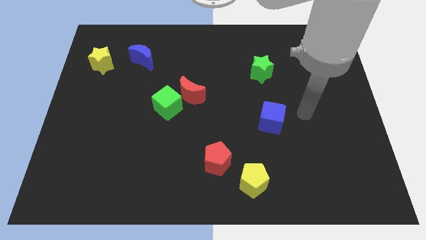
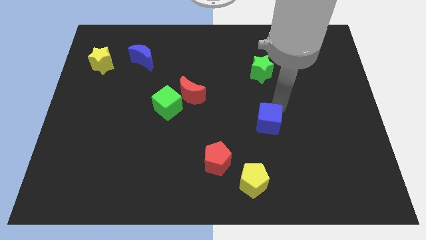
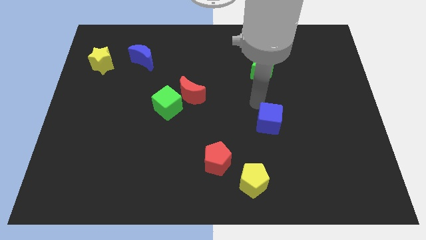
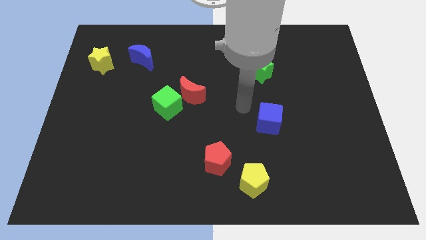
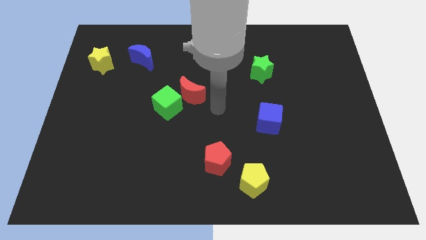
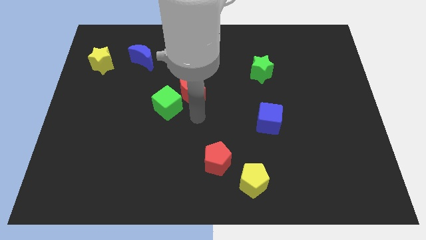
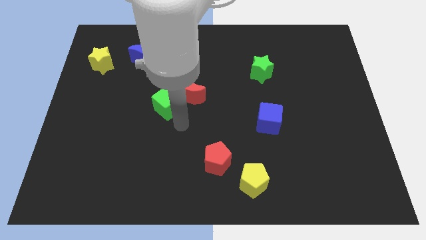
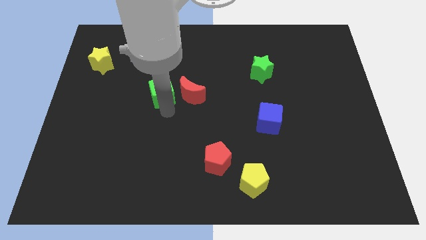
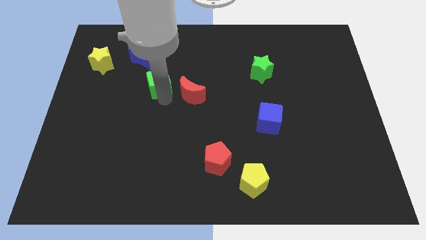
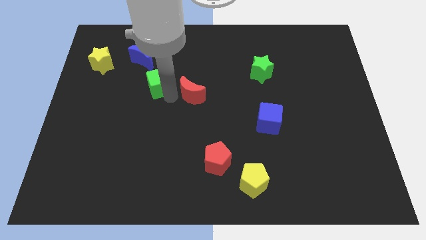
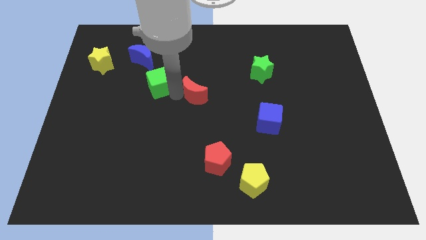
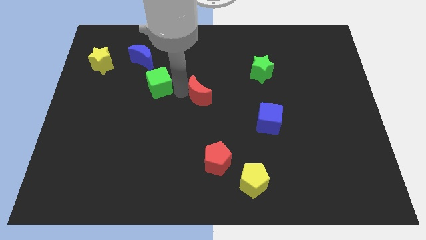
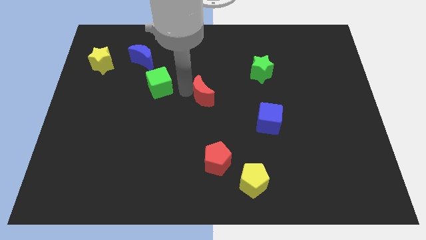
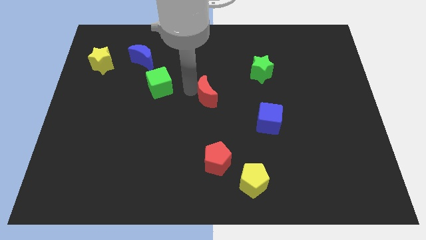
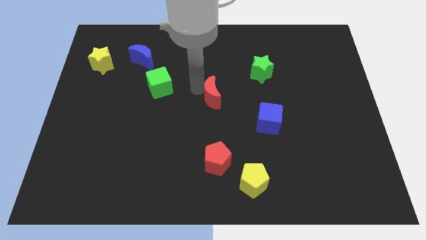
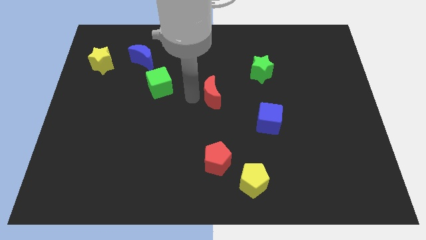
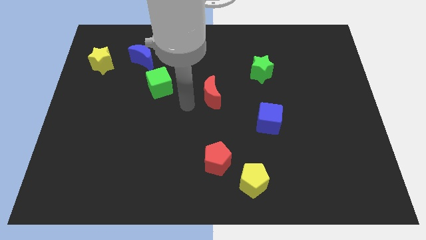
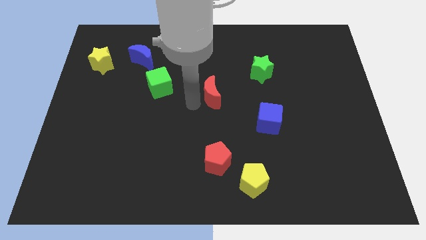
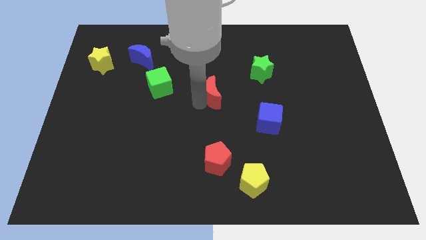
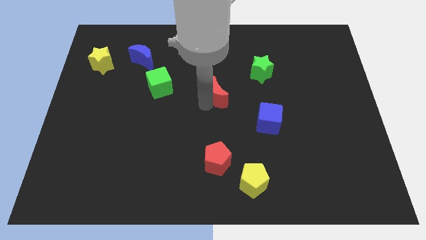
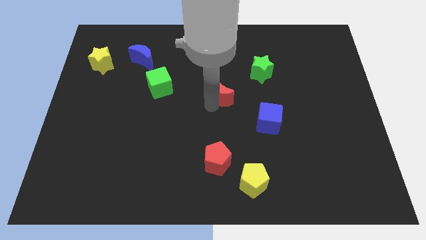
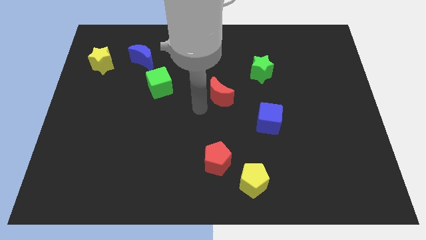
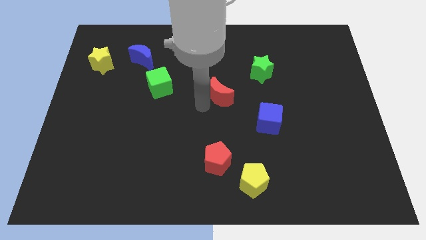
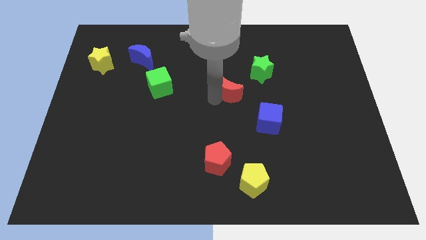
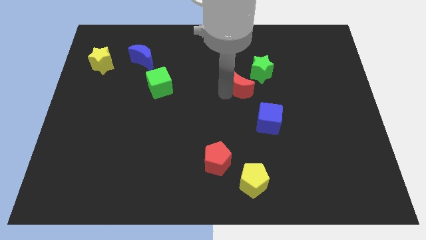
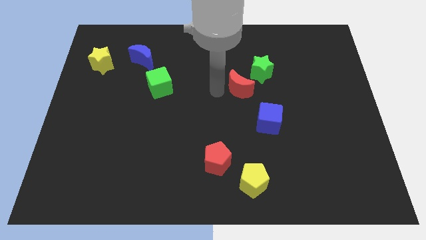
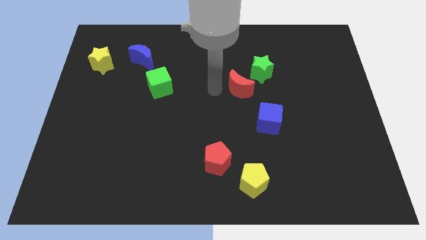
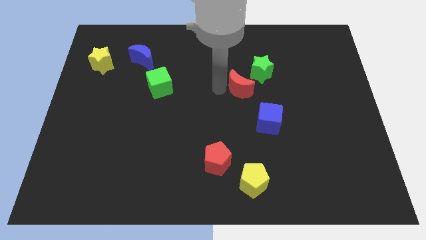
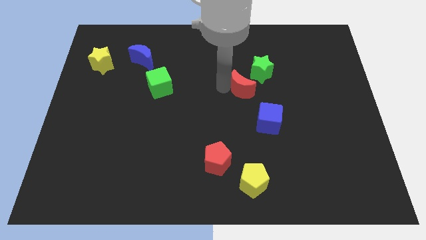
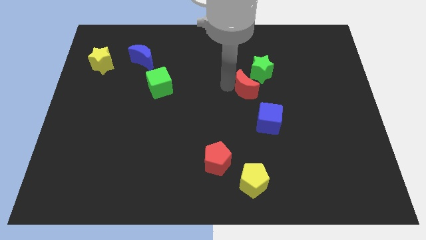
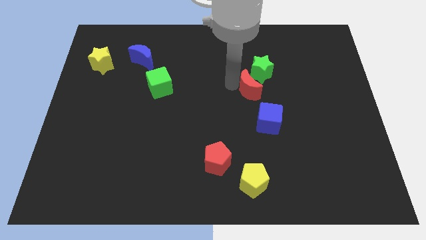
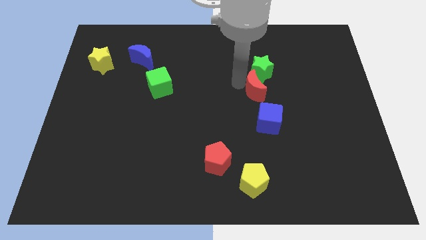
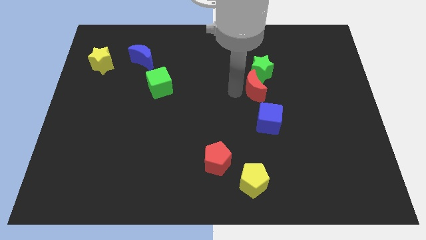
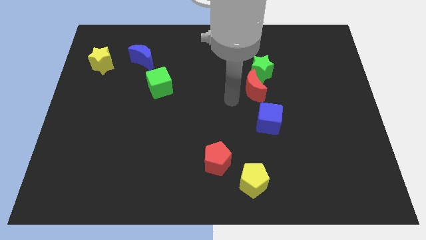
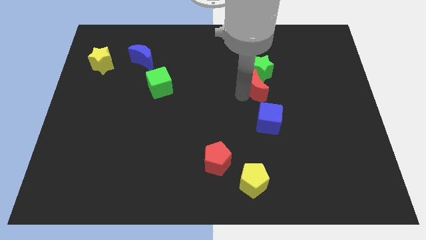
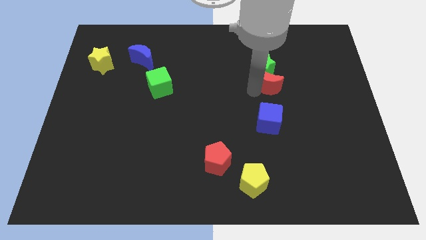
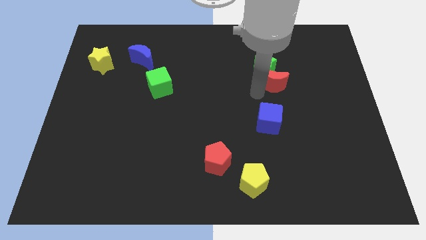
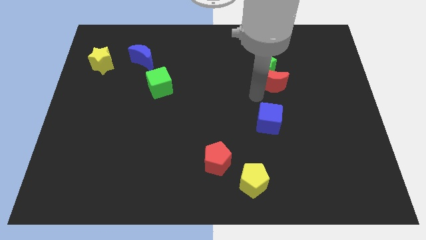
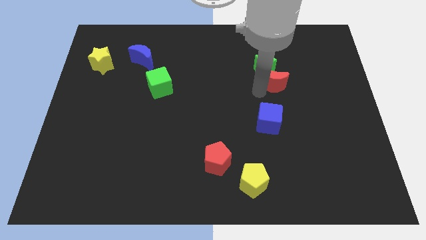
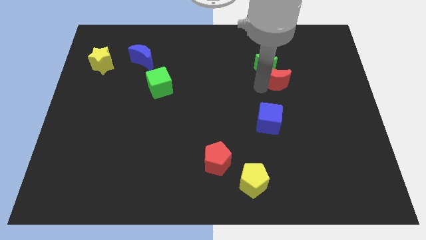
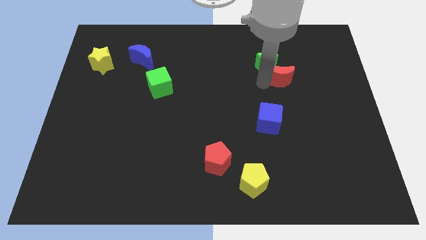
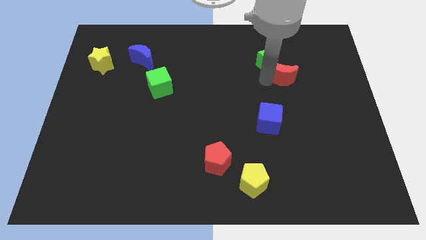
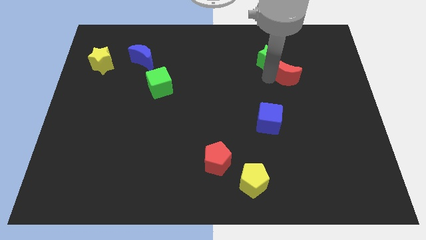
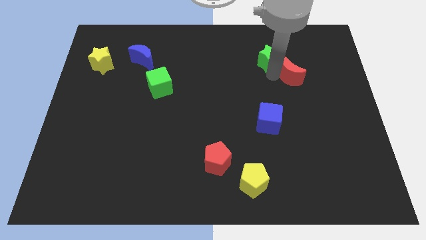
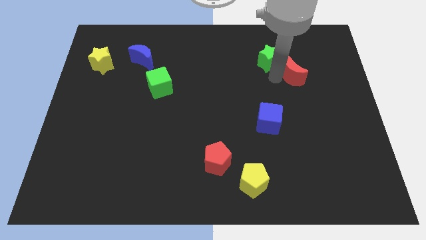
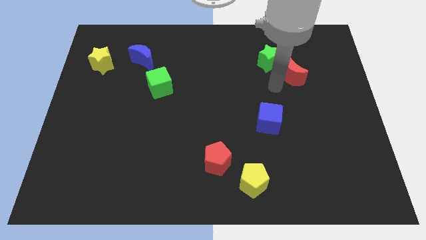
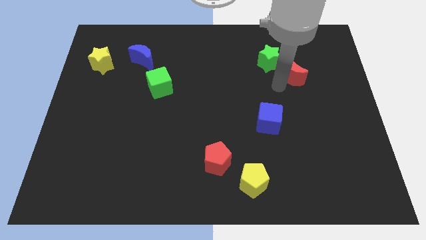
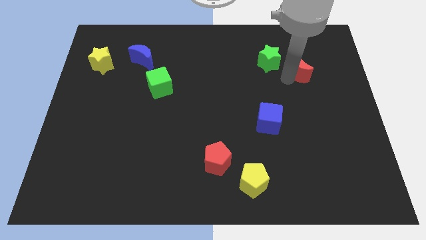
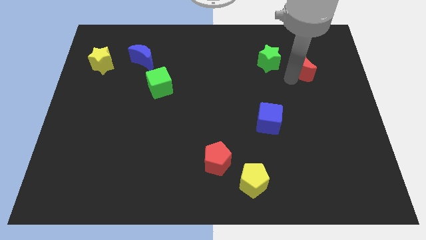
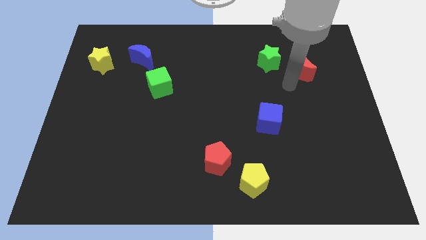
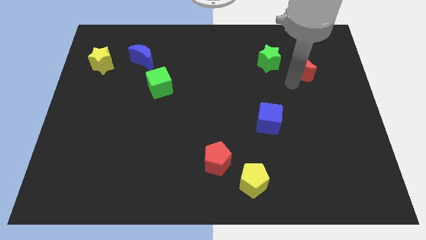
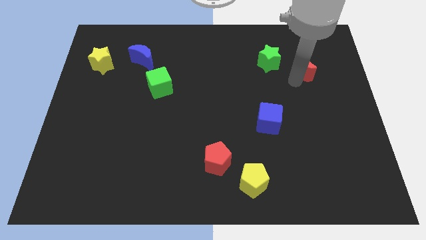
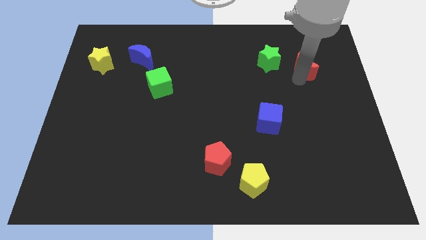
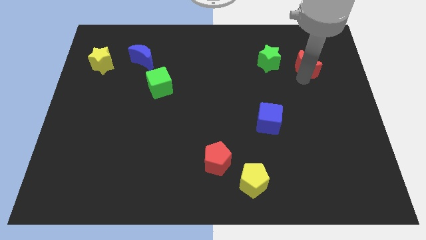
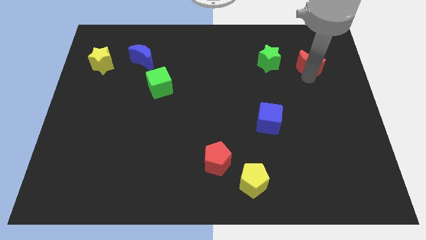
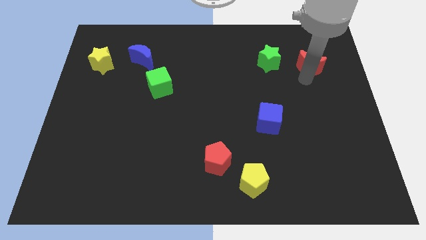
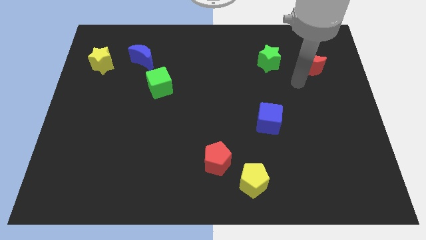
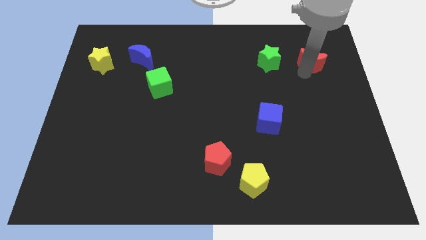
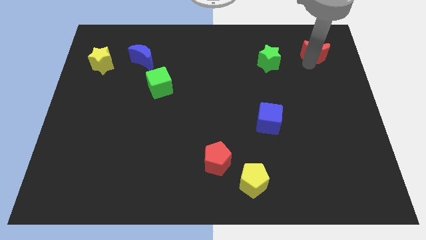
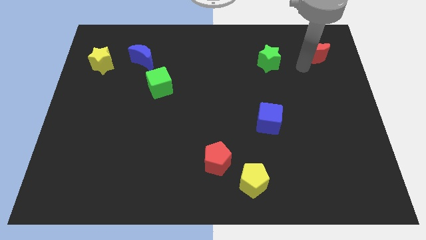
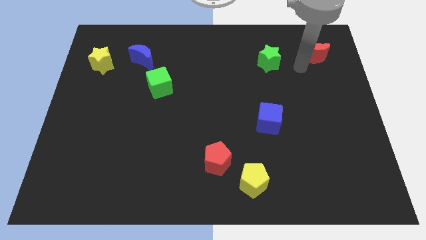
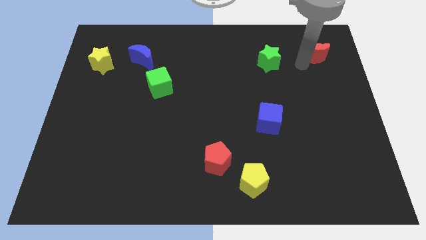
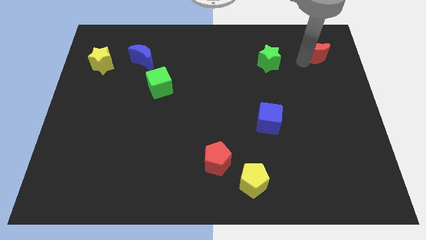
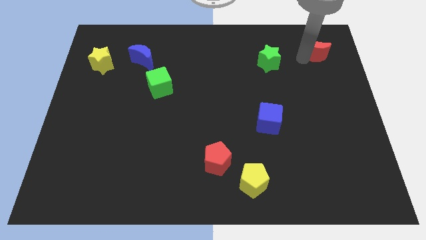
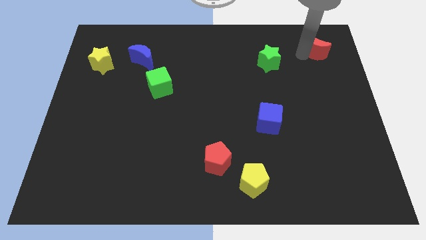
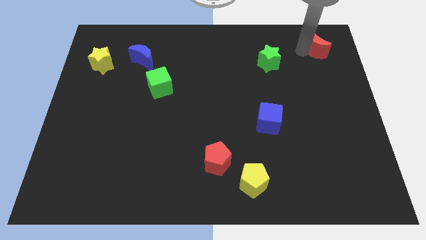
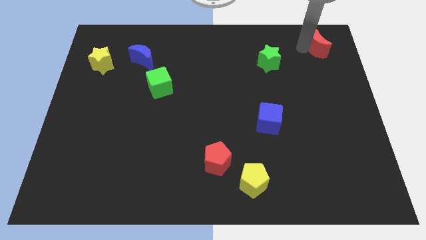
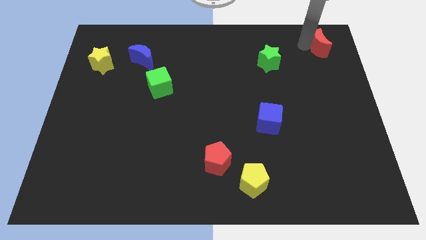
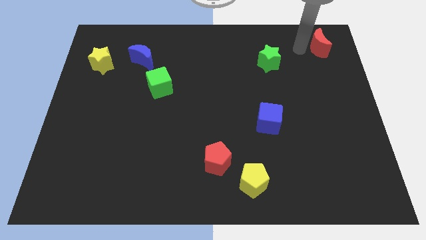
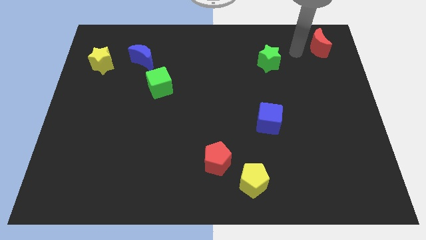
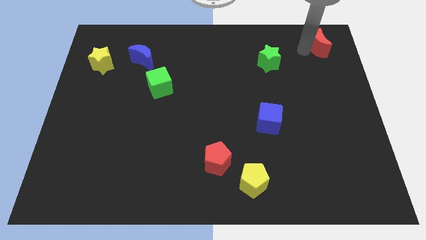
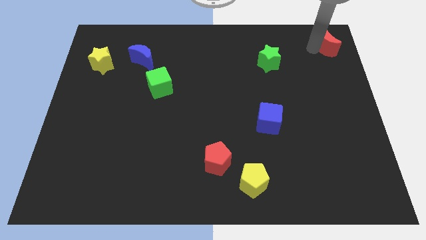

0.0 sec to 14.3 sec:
slide the red moon to the top right of the board

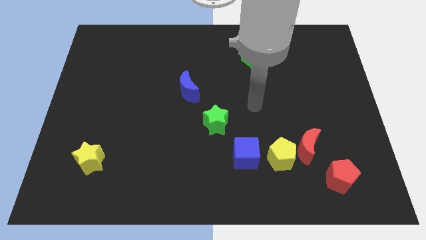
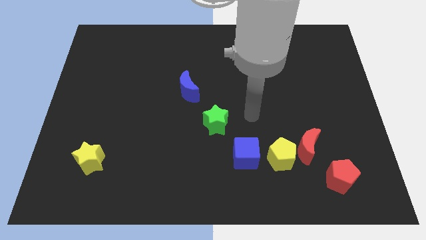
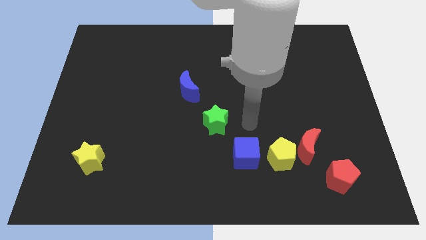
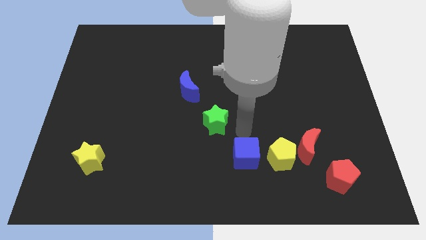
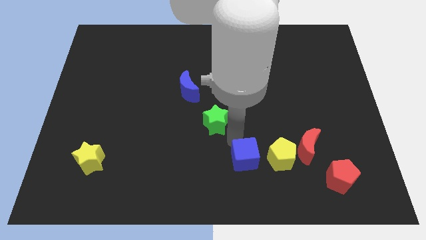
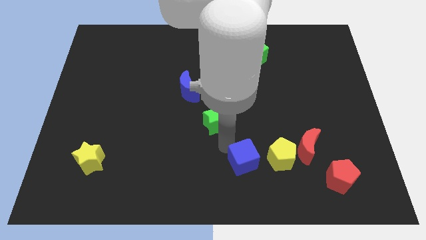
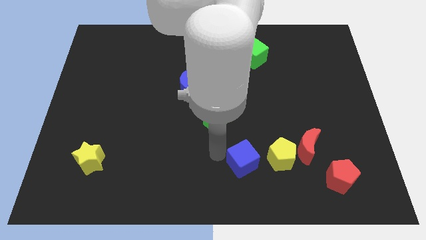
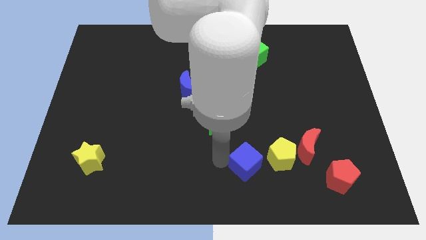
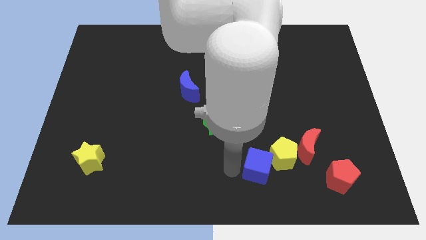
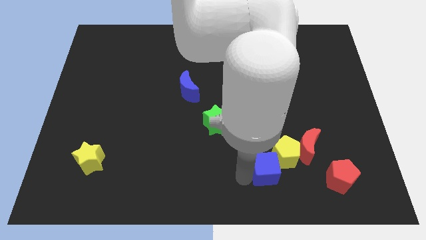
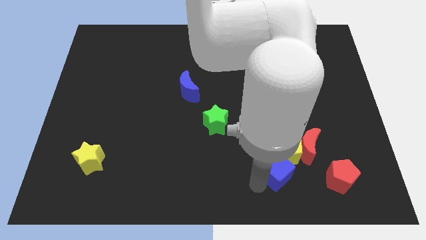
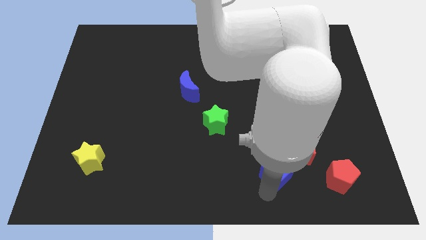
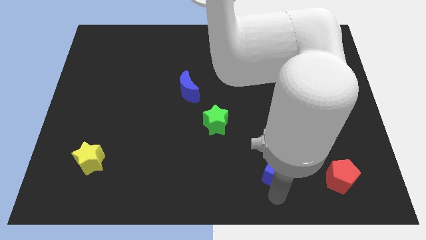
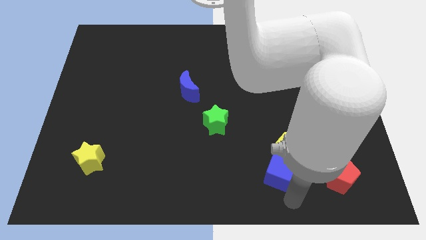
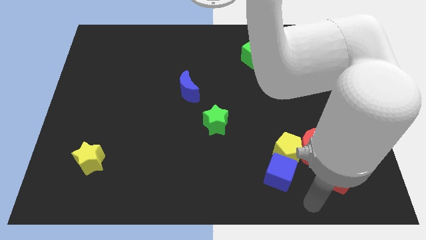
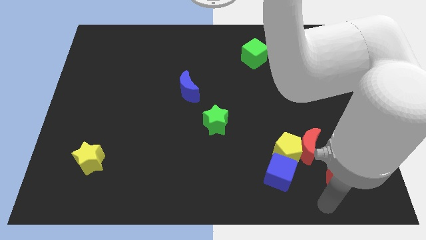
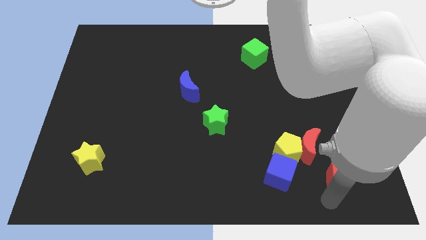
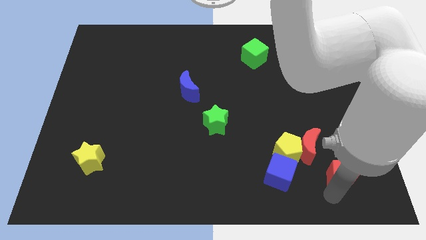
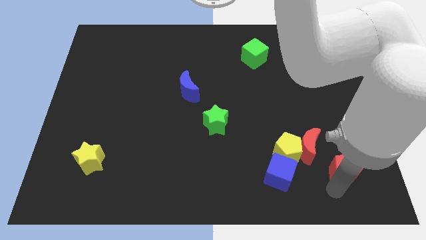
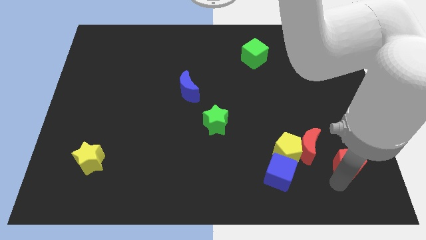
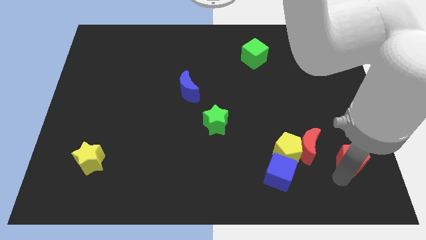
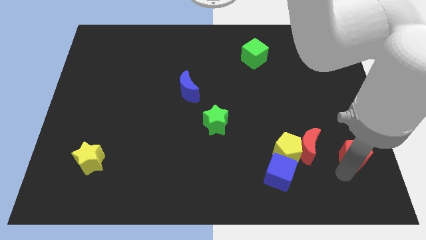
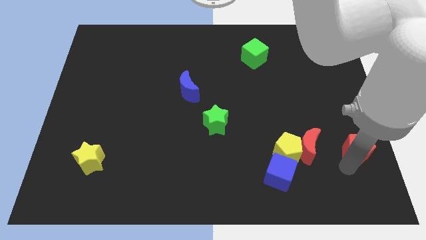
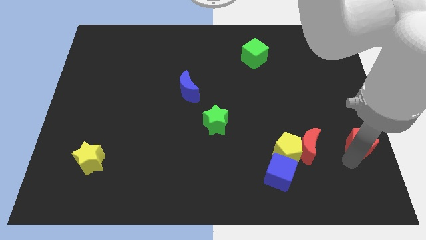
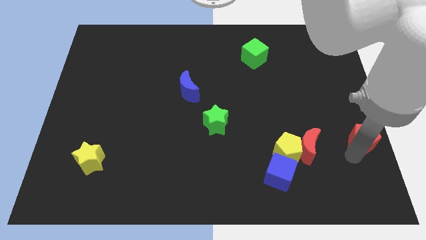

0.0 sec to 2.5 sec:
put the red pentagon to the right side of the board
